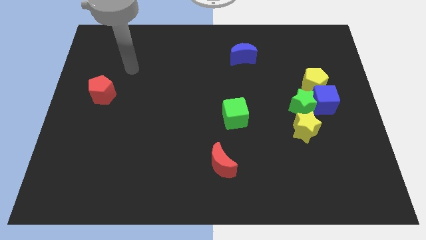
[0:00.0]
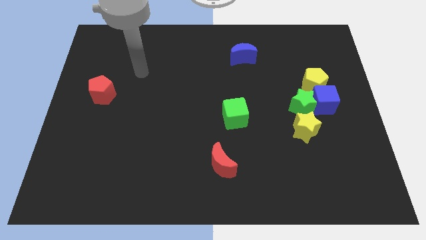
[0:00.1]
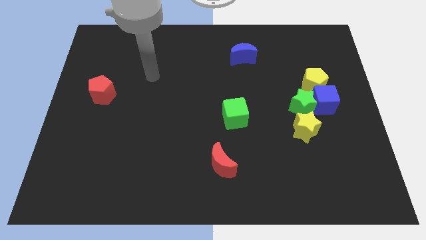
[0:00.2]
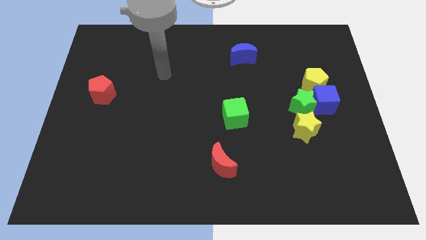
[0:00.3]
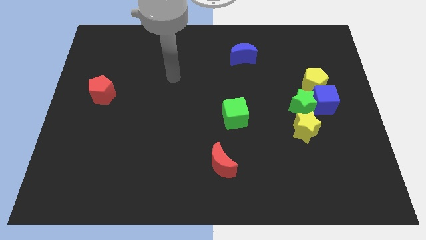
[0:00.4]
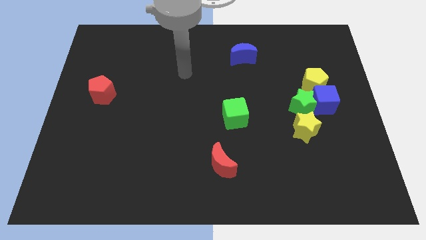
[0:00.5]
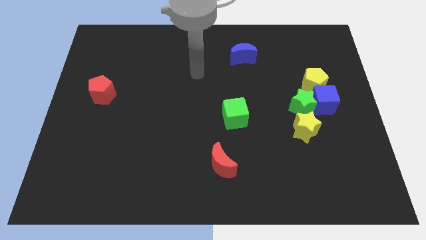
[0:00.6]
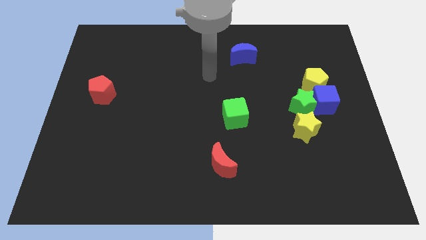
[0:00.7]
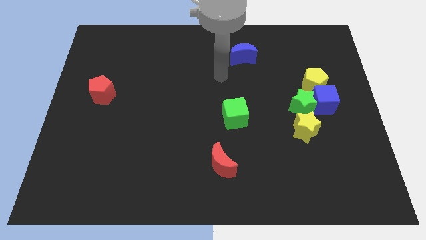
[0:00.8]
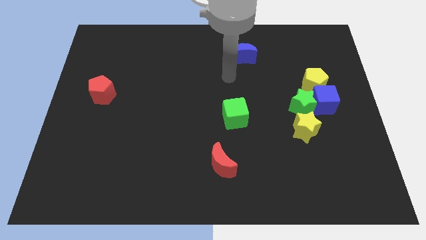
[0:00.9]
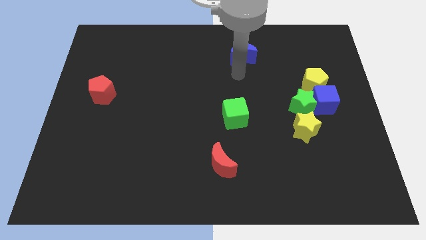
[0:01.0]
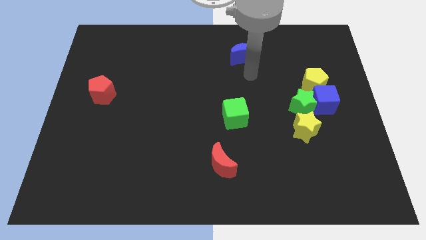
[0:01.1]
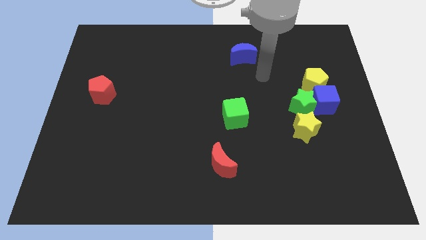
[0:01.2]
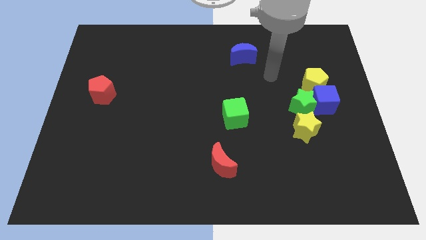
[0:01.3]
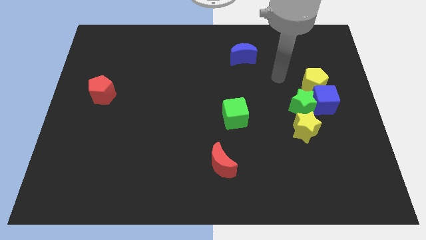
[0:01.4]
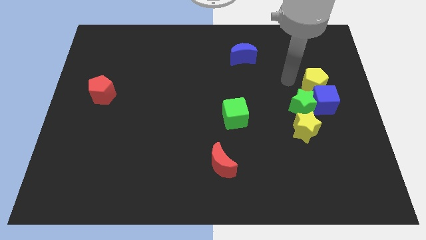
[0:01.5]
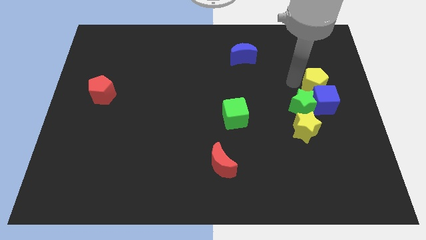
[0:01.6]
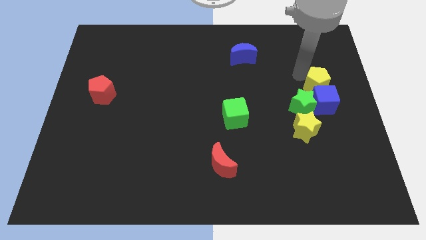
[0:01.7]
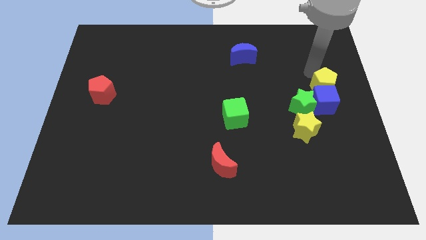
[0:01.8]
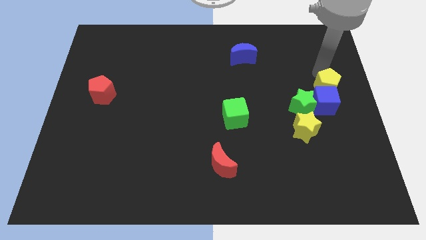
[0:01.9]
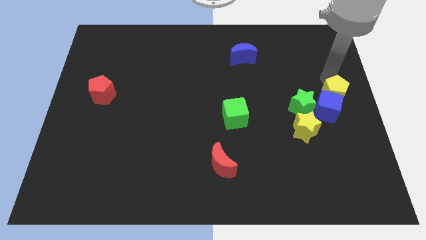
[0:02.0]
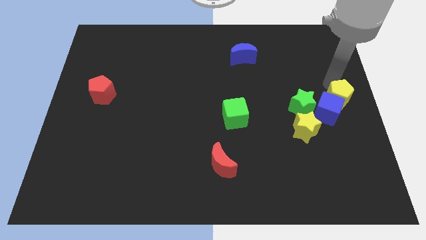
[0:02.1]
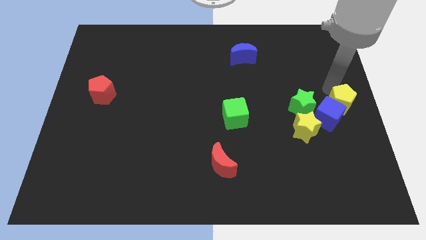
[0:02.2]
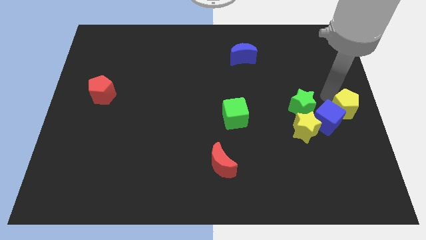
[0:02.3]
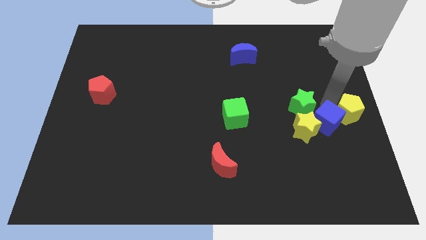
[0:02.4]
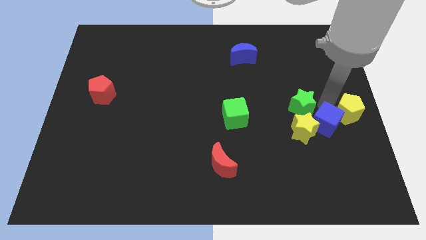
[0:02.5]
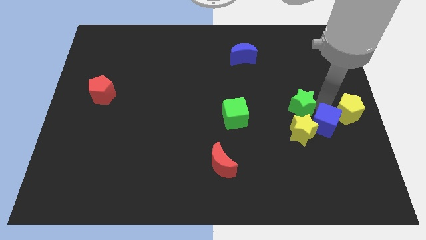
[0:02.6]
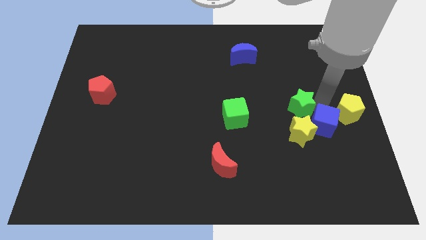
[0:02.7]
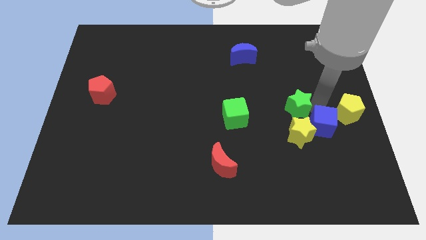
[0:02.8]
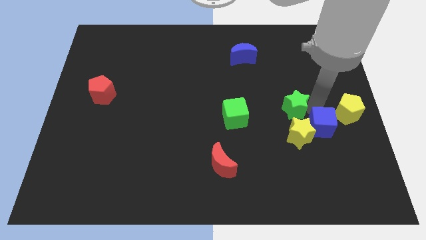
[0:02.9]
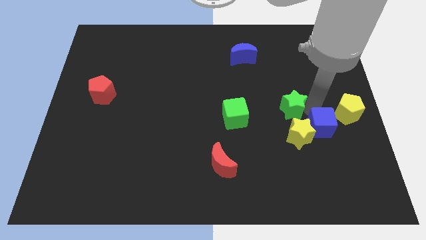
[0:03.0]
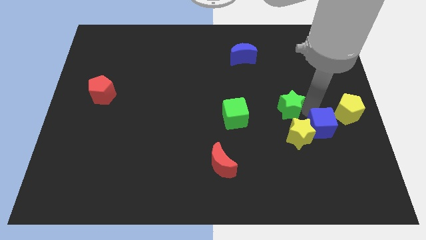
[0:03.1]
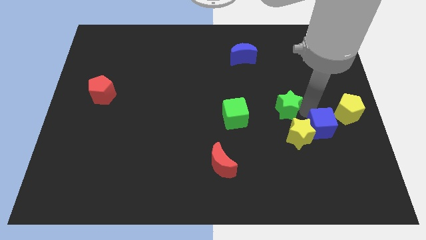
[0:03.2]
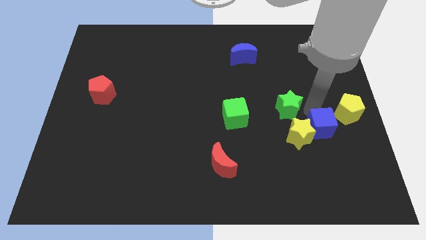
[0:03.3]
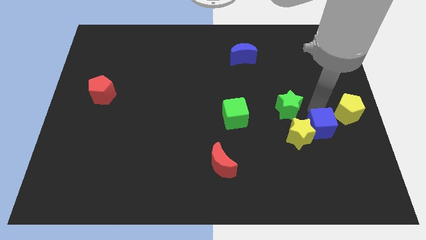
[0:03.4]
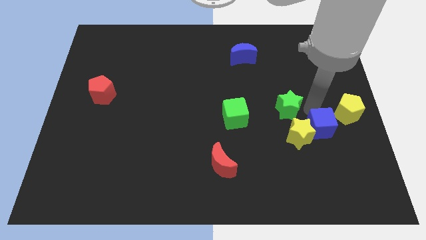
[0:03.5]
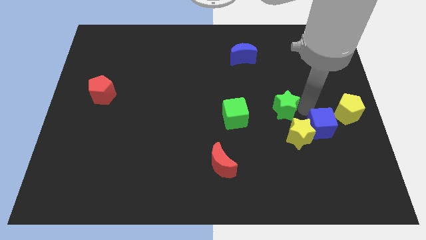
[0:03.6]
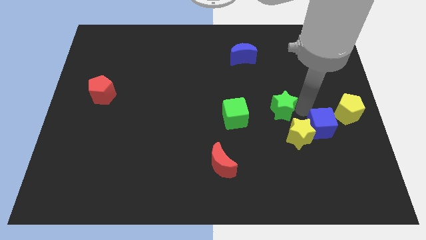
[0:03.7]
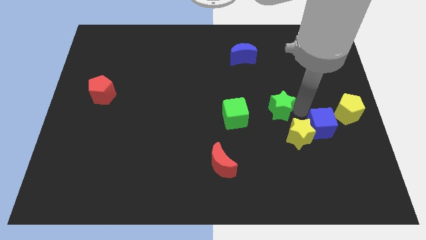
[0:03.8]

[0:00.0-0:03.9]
separate the green star from the blue cube, yellow star, and yellow pentagon

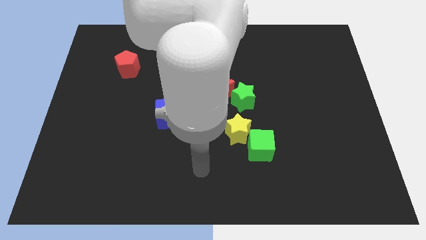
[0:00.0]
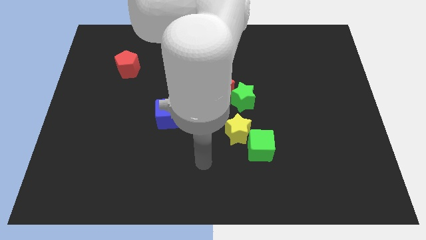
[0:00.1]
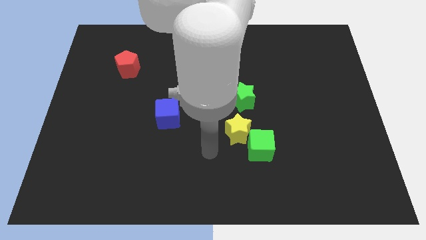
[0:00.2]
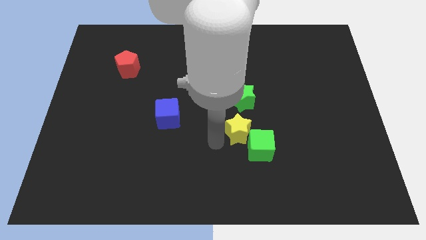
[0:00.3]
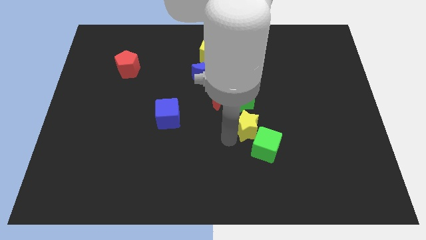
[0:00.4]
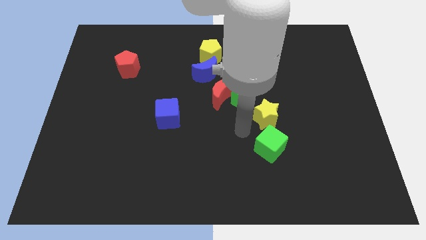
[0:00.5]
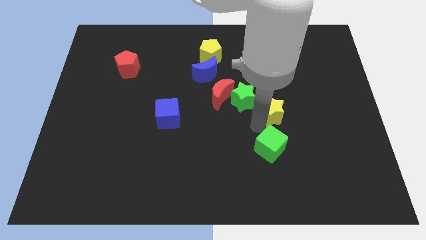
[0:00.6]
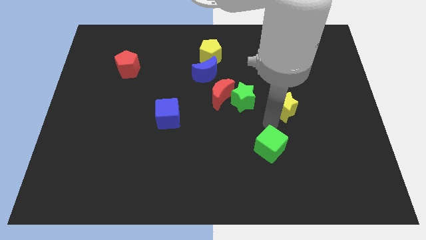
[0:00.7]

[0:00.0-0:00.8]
separate the green cube from the yellow star

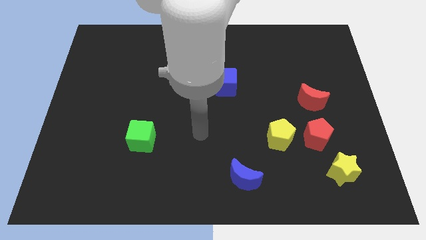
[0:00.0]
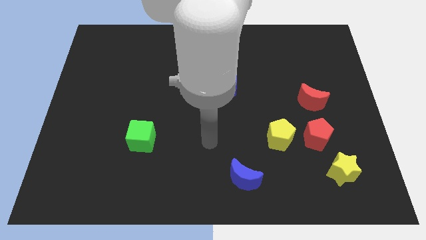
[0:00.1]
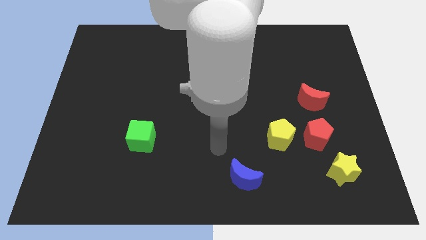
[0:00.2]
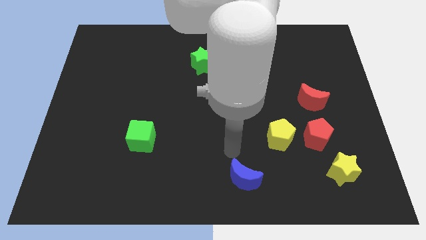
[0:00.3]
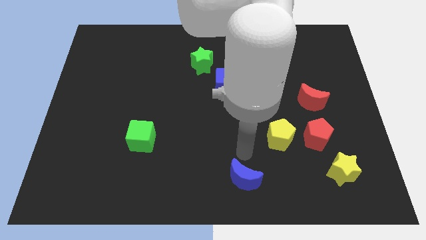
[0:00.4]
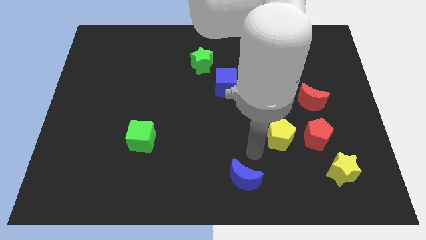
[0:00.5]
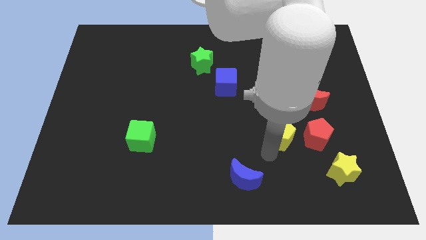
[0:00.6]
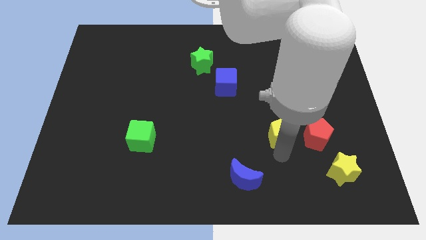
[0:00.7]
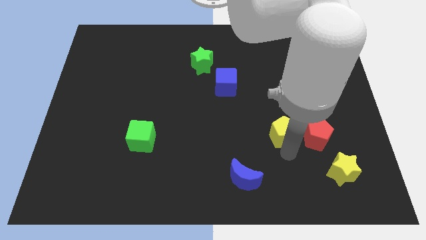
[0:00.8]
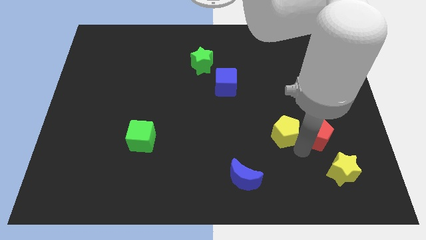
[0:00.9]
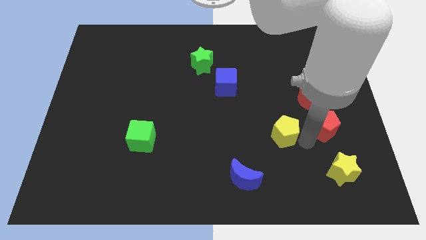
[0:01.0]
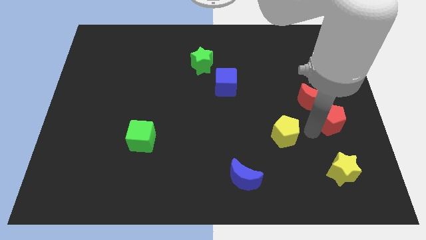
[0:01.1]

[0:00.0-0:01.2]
separate the yellow pentagon from the red pentagon

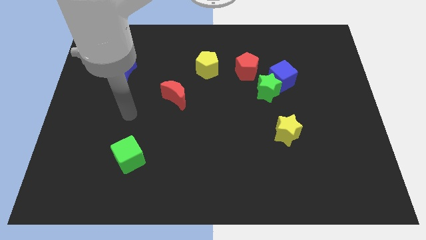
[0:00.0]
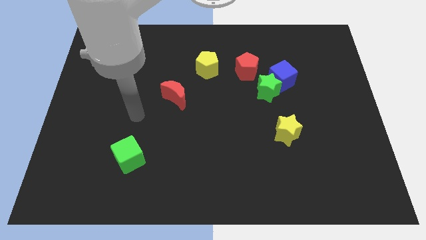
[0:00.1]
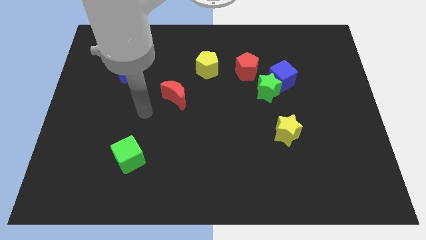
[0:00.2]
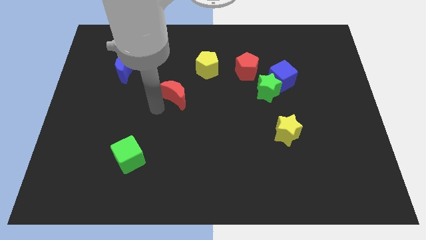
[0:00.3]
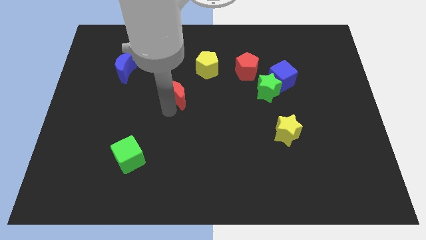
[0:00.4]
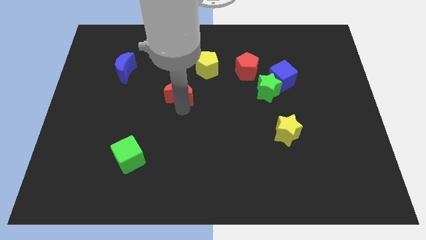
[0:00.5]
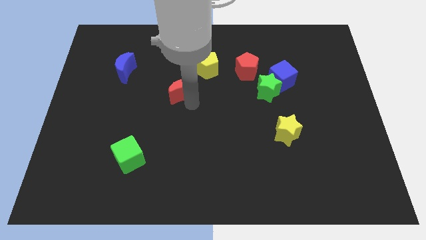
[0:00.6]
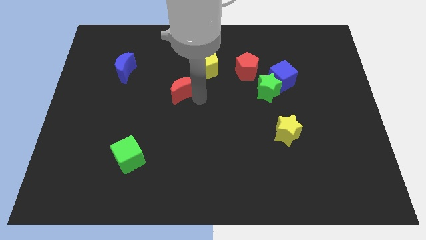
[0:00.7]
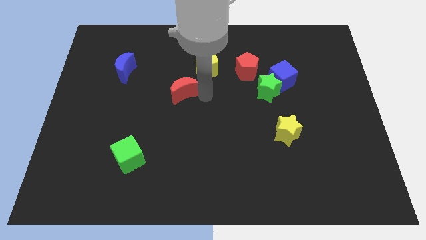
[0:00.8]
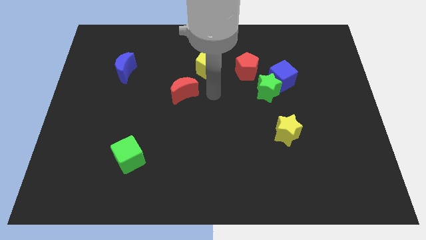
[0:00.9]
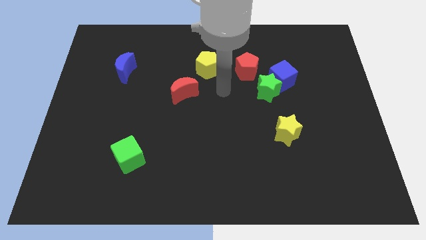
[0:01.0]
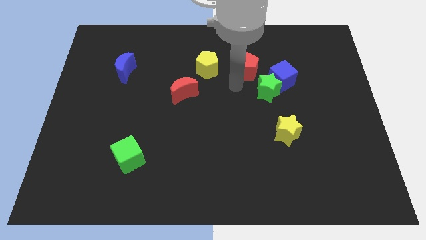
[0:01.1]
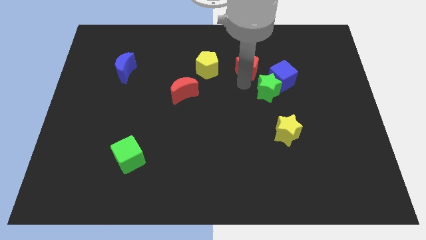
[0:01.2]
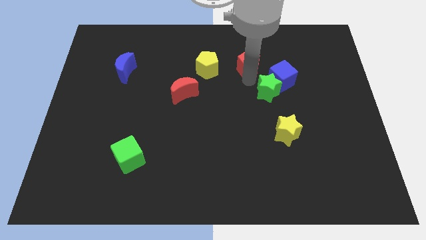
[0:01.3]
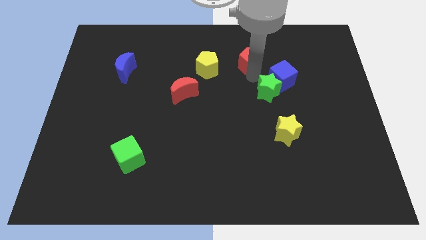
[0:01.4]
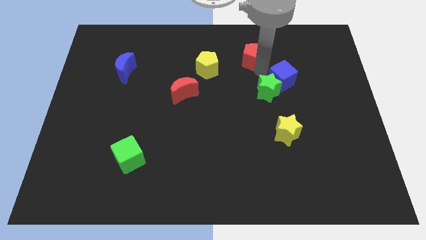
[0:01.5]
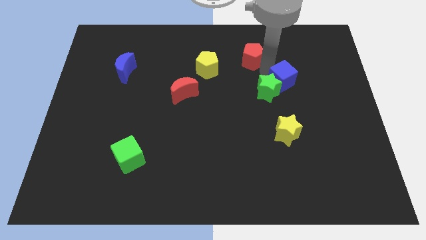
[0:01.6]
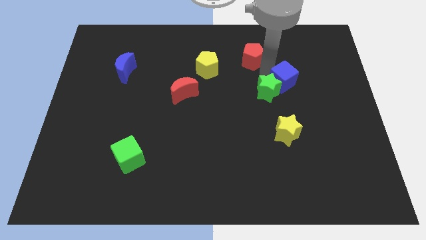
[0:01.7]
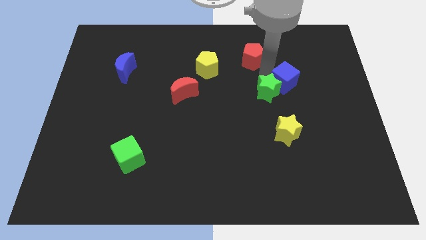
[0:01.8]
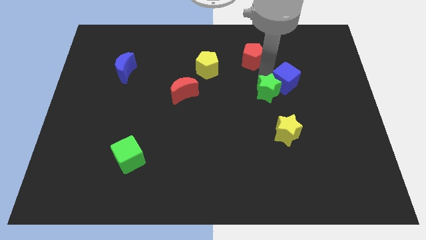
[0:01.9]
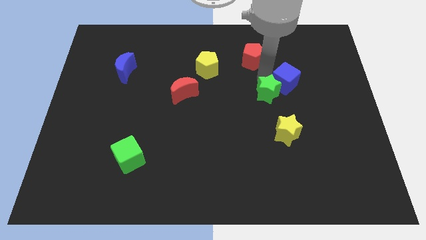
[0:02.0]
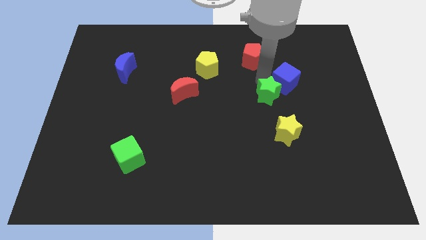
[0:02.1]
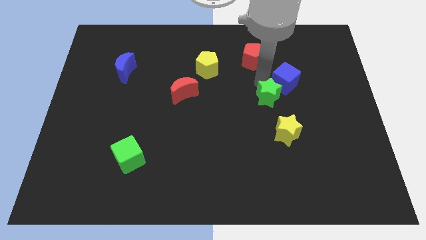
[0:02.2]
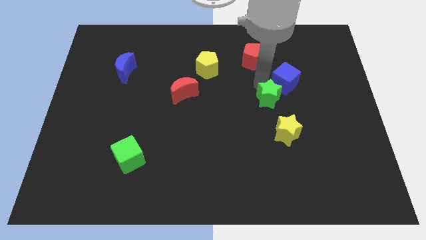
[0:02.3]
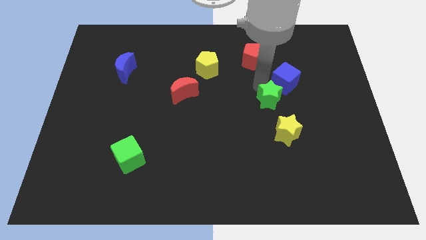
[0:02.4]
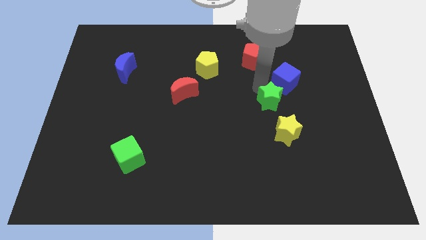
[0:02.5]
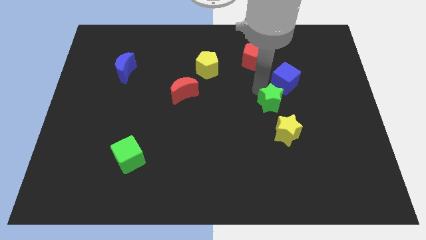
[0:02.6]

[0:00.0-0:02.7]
separate the green star from the blue cube and red pentagon

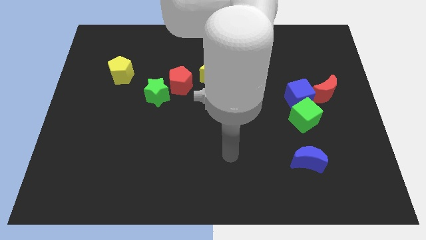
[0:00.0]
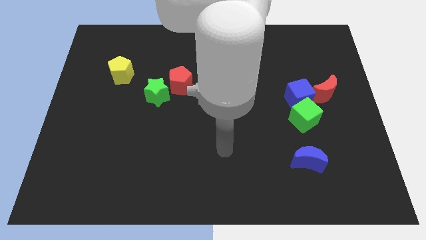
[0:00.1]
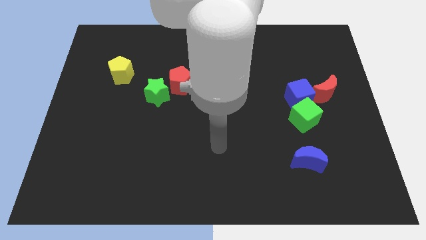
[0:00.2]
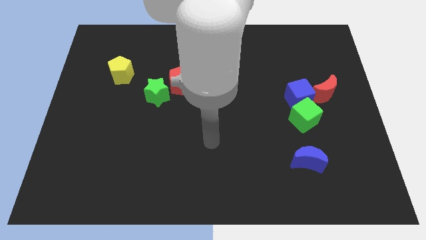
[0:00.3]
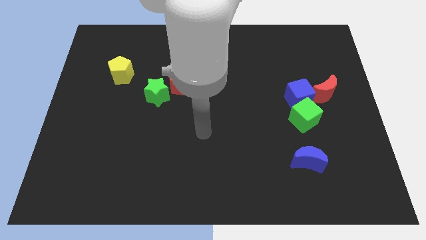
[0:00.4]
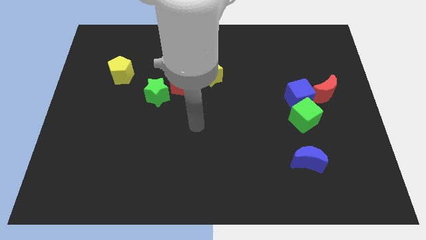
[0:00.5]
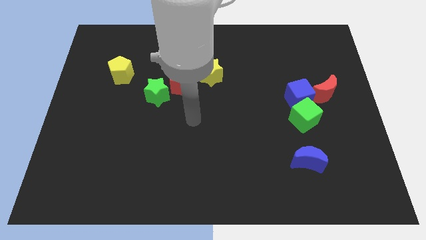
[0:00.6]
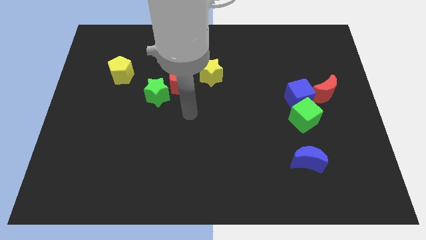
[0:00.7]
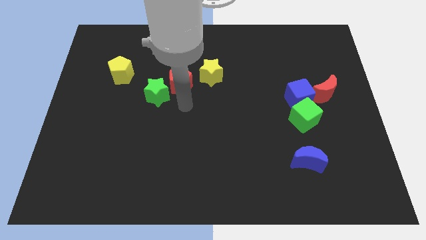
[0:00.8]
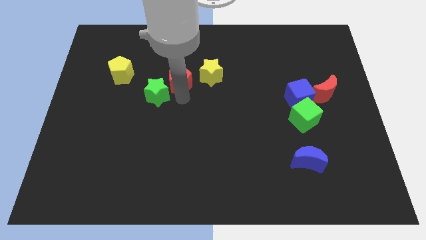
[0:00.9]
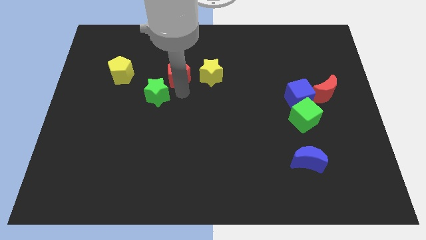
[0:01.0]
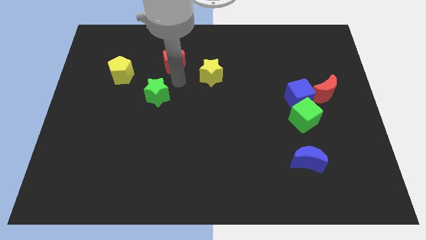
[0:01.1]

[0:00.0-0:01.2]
separate the green star from the red pentagon
